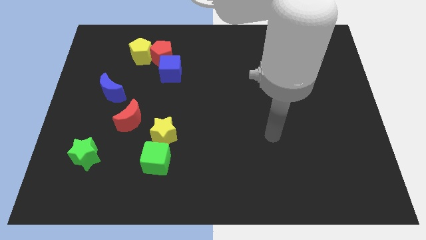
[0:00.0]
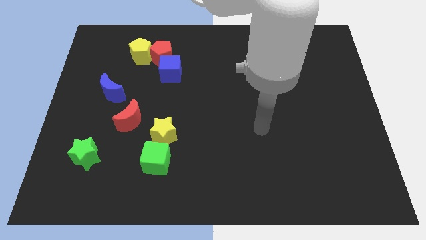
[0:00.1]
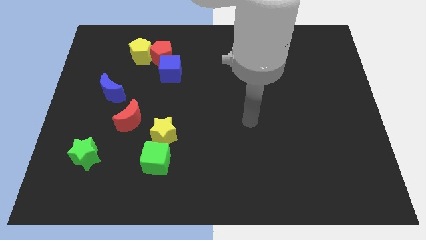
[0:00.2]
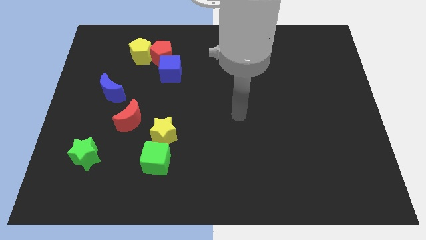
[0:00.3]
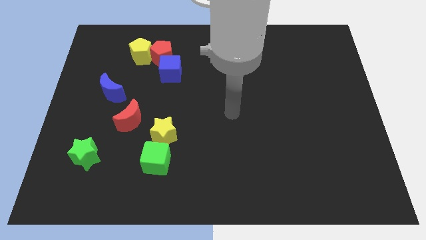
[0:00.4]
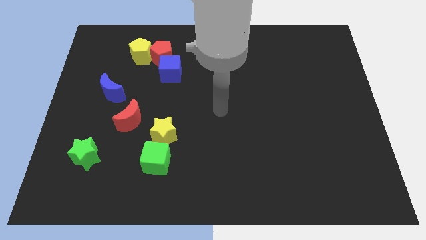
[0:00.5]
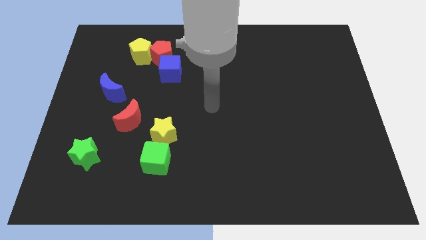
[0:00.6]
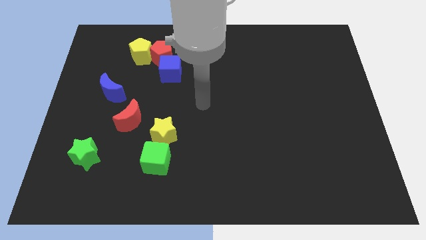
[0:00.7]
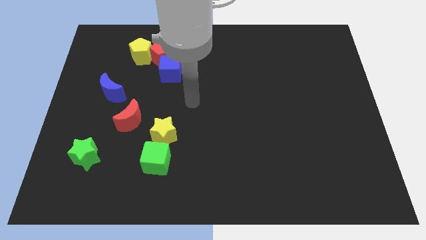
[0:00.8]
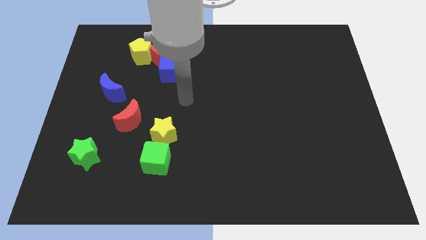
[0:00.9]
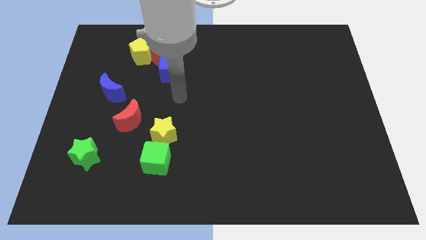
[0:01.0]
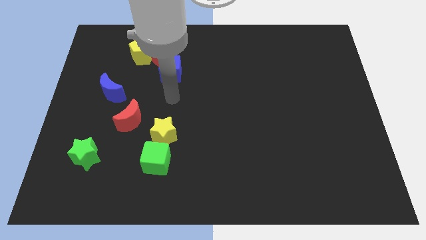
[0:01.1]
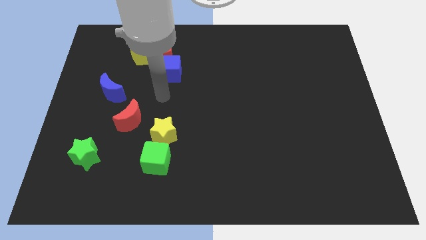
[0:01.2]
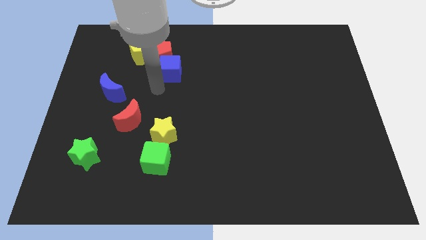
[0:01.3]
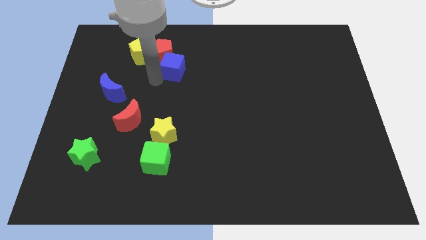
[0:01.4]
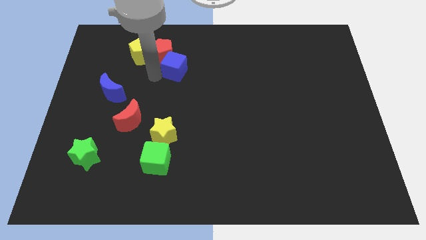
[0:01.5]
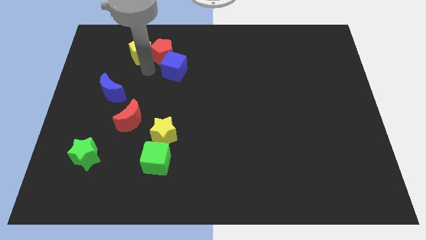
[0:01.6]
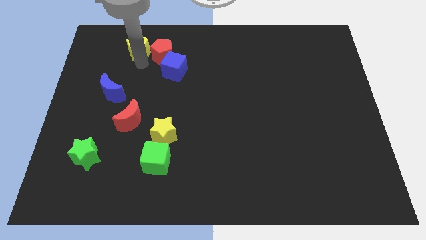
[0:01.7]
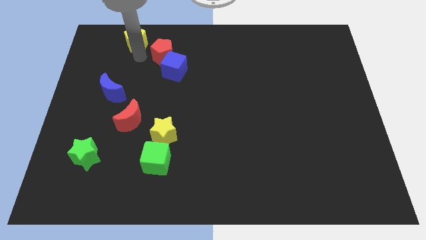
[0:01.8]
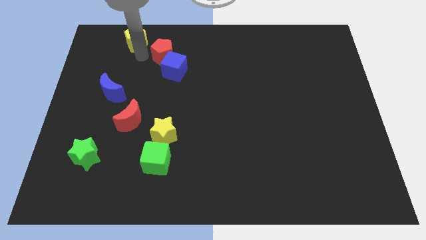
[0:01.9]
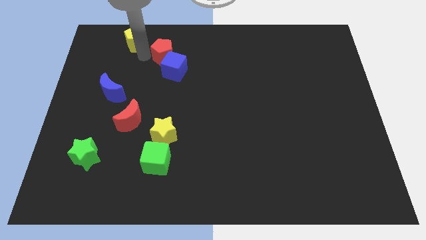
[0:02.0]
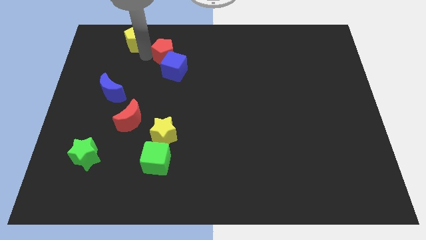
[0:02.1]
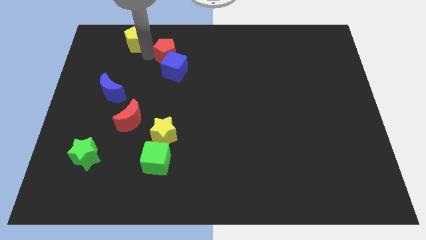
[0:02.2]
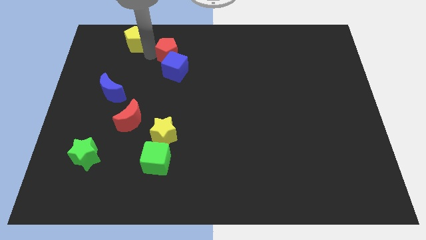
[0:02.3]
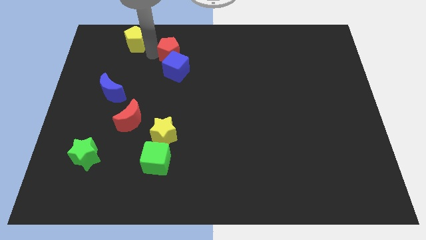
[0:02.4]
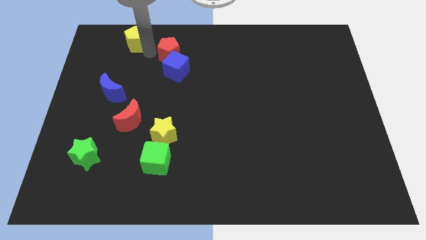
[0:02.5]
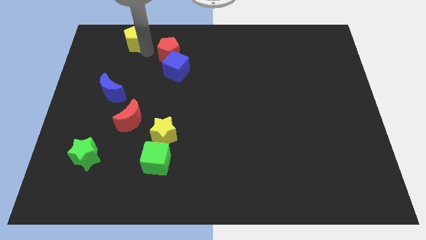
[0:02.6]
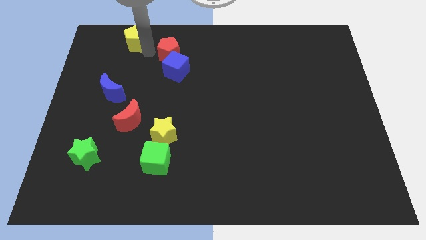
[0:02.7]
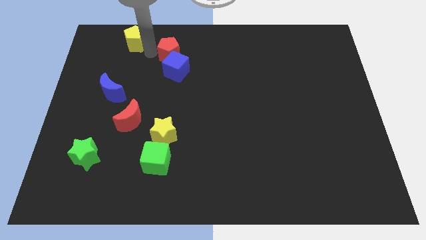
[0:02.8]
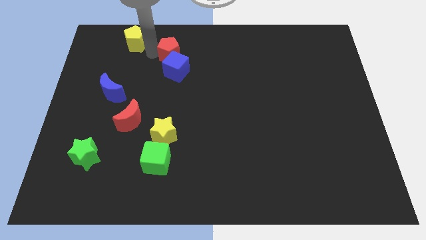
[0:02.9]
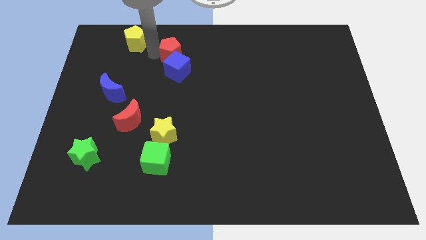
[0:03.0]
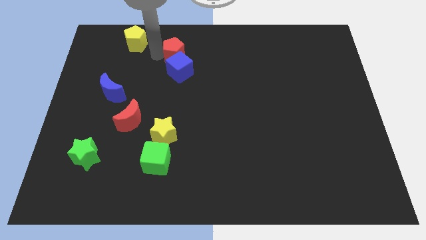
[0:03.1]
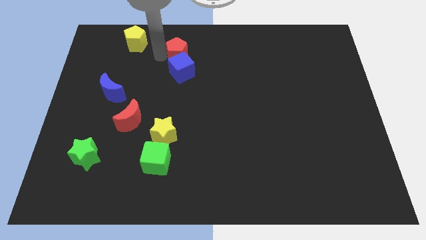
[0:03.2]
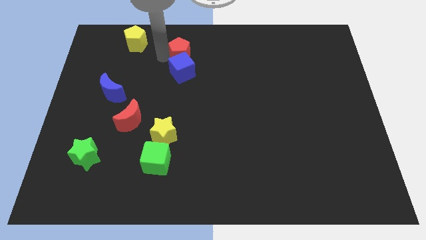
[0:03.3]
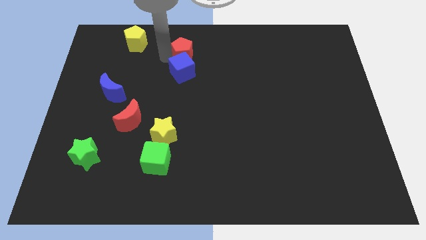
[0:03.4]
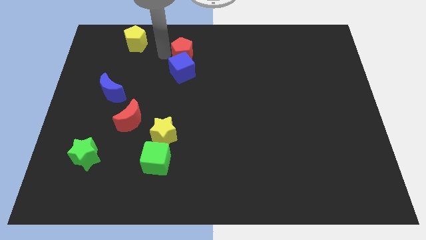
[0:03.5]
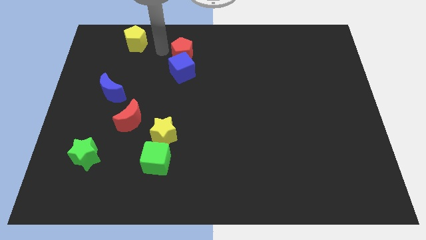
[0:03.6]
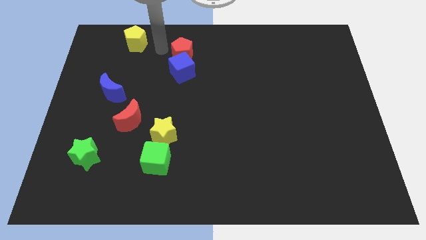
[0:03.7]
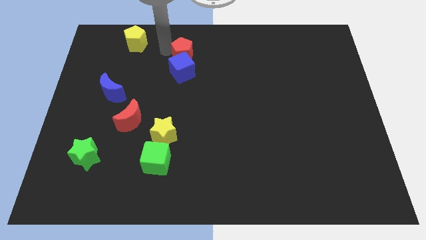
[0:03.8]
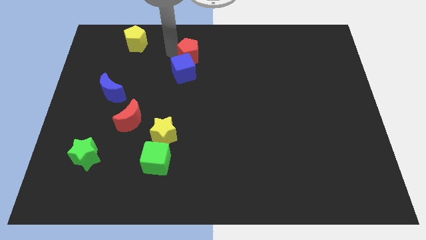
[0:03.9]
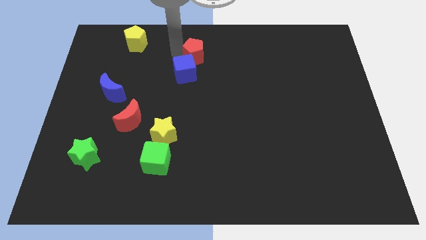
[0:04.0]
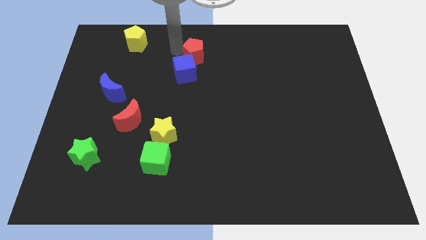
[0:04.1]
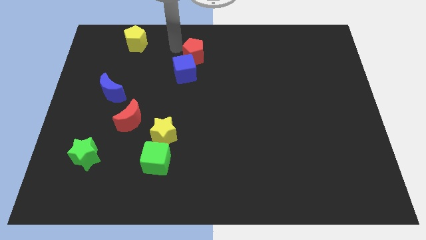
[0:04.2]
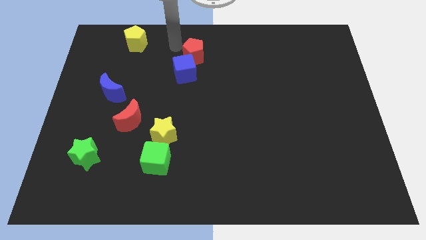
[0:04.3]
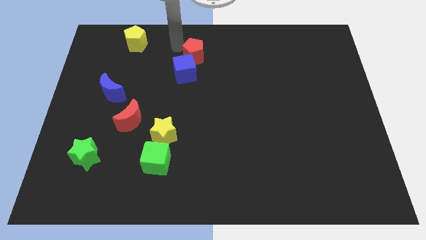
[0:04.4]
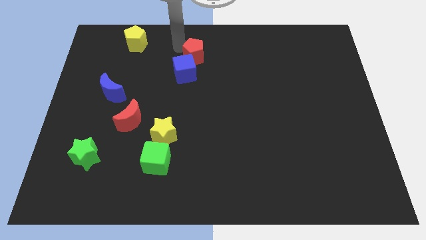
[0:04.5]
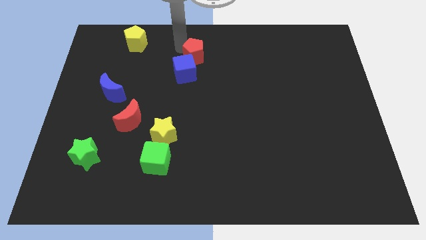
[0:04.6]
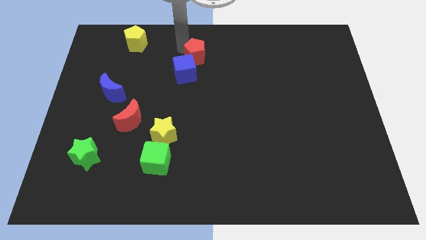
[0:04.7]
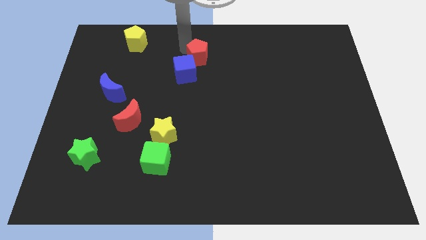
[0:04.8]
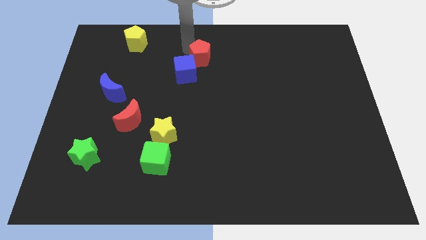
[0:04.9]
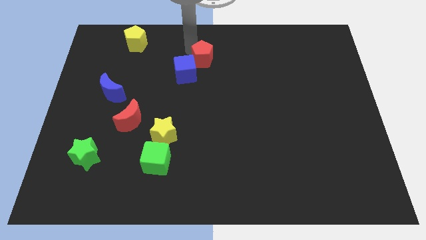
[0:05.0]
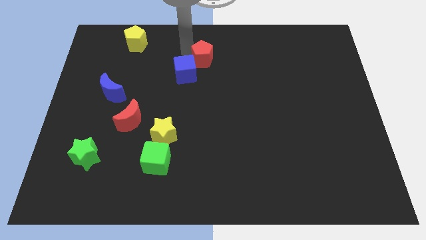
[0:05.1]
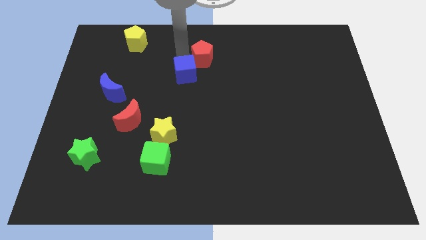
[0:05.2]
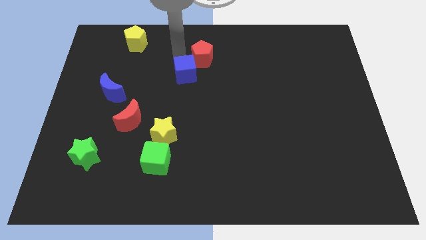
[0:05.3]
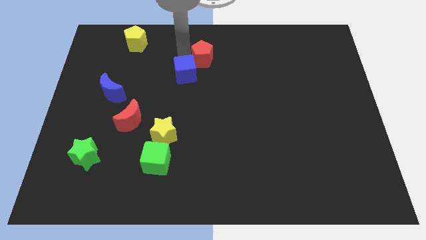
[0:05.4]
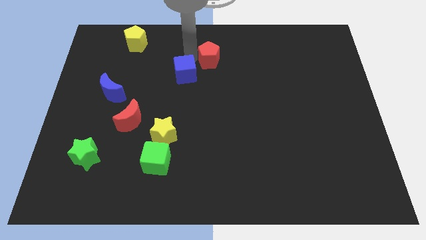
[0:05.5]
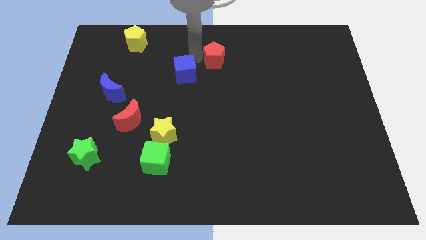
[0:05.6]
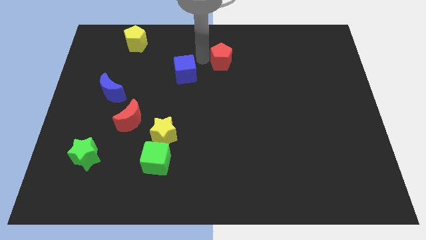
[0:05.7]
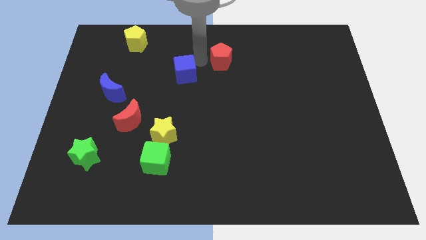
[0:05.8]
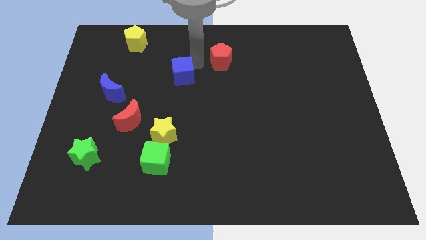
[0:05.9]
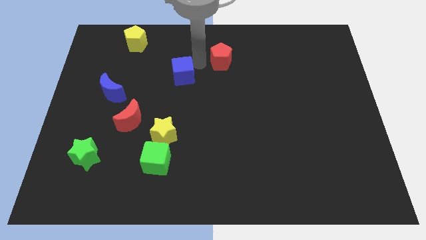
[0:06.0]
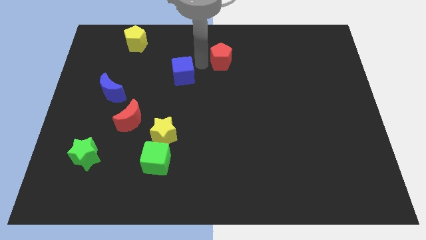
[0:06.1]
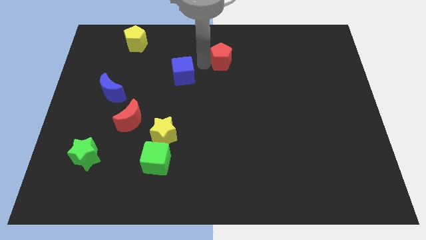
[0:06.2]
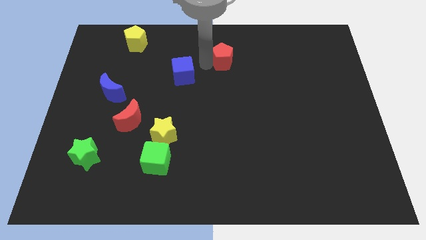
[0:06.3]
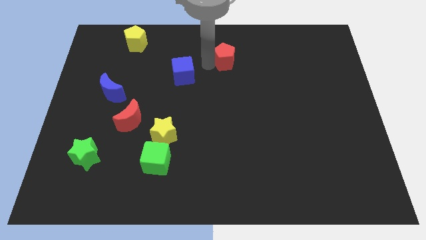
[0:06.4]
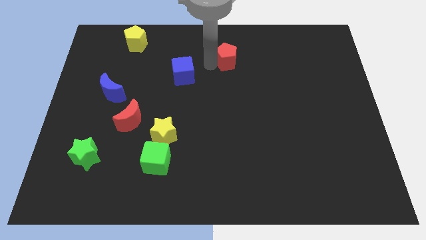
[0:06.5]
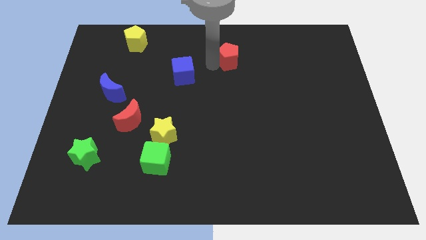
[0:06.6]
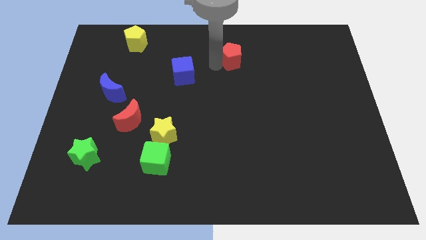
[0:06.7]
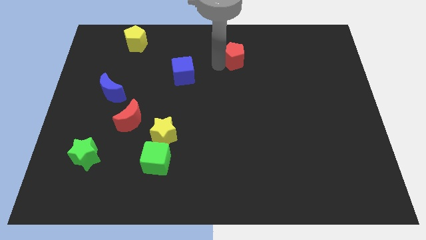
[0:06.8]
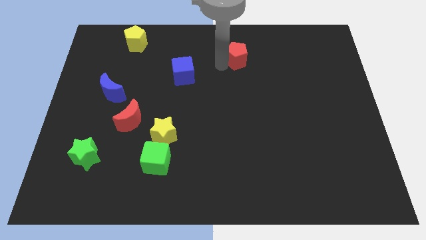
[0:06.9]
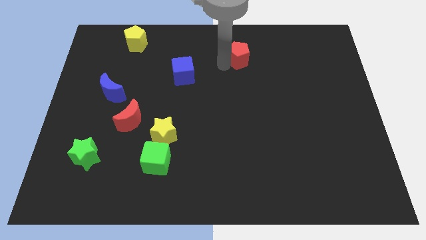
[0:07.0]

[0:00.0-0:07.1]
slide the red pentagon to the right

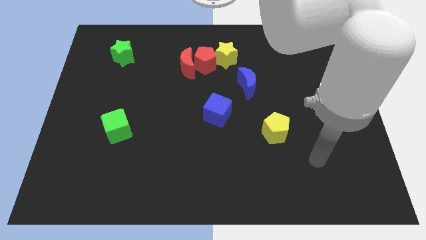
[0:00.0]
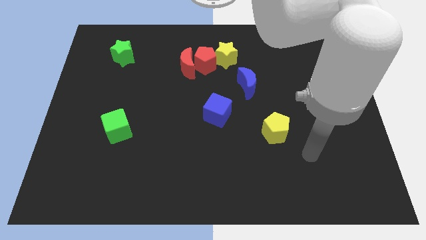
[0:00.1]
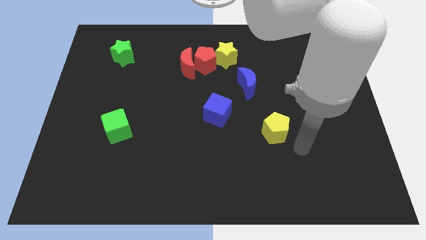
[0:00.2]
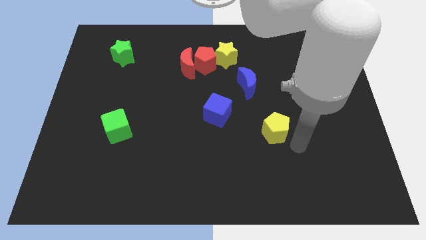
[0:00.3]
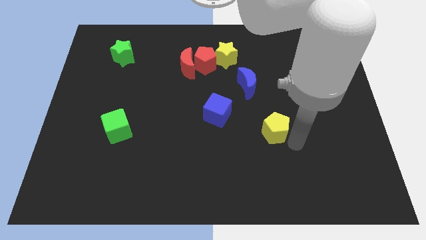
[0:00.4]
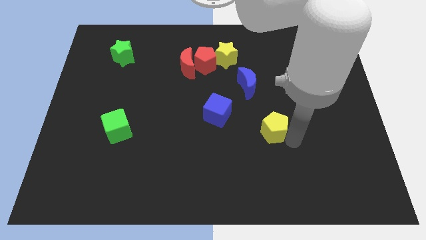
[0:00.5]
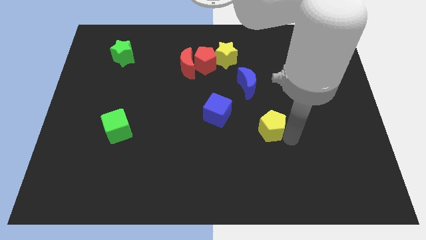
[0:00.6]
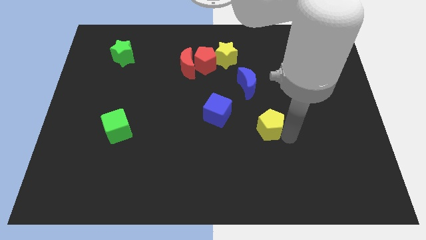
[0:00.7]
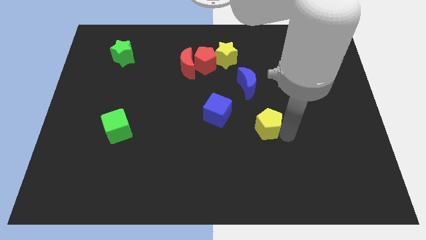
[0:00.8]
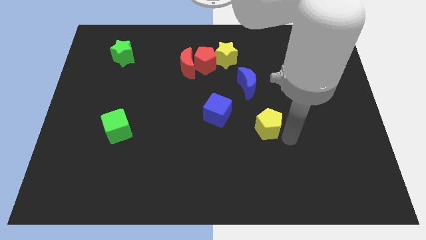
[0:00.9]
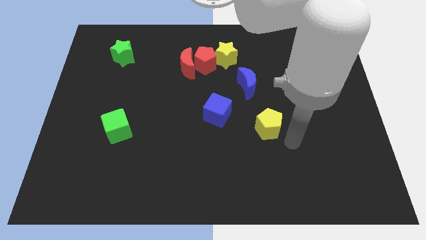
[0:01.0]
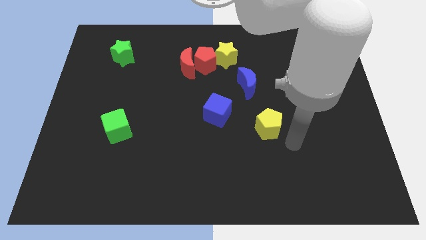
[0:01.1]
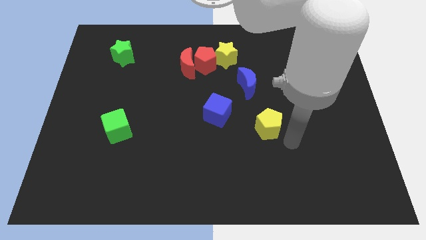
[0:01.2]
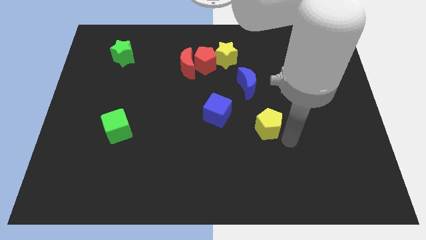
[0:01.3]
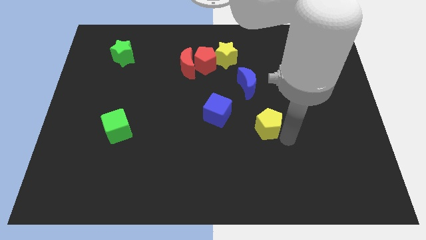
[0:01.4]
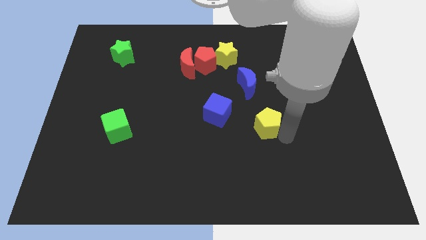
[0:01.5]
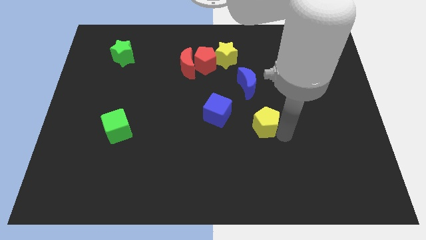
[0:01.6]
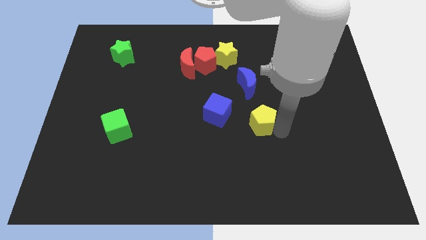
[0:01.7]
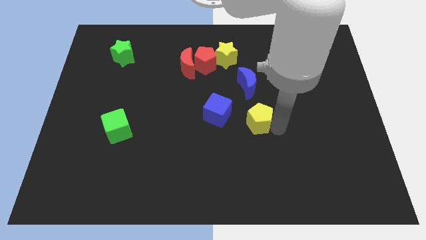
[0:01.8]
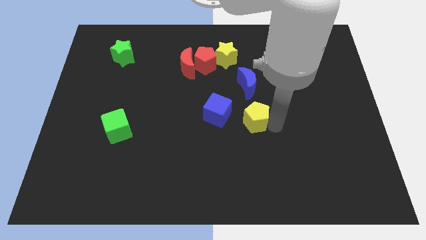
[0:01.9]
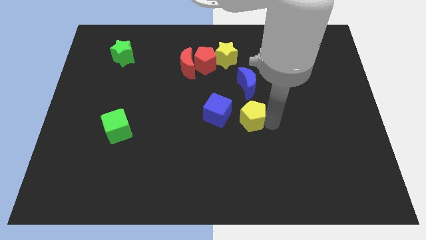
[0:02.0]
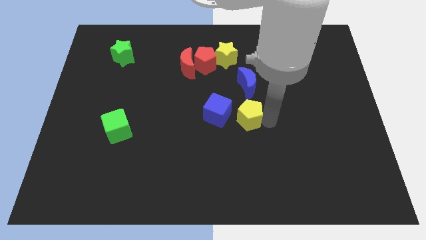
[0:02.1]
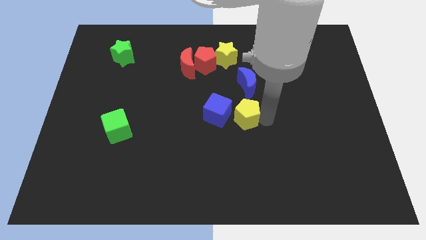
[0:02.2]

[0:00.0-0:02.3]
slightly slide the yellow pentagon up and left diagonally
